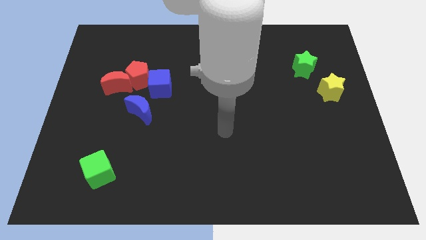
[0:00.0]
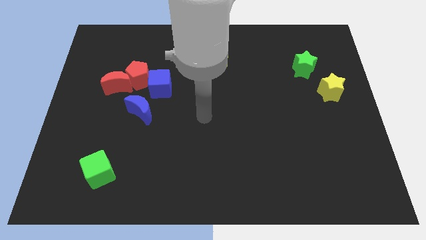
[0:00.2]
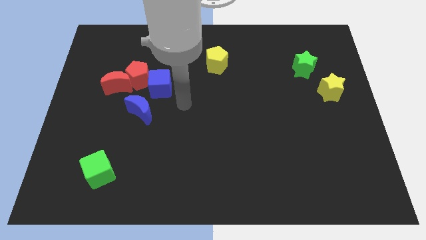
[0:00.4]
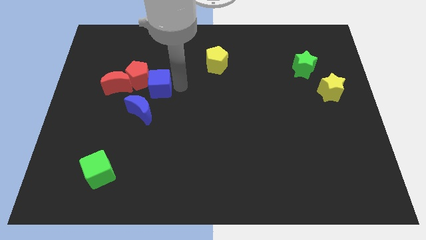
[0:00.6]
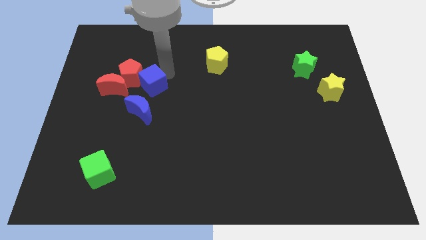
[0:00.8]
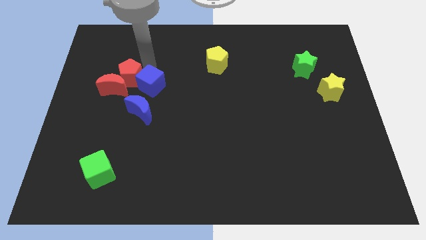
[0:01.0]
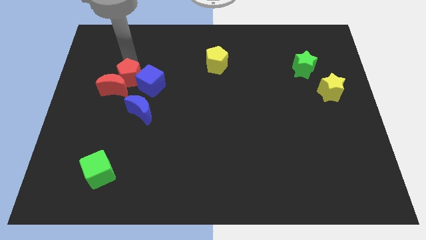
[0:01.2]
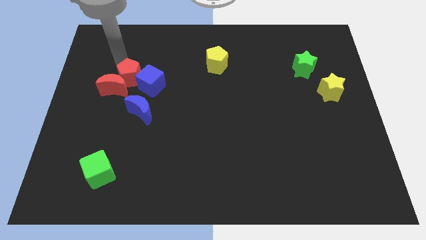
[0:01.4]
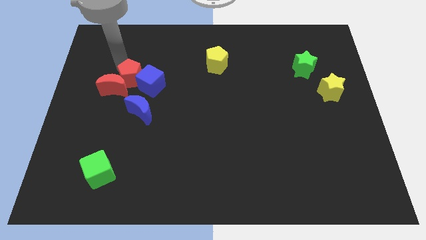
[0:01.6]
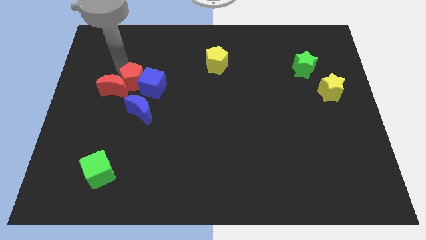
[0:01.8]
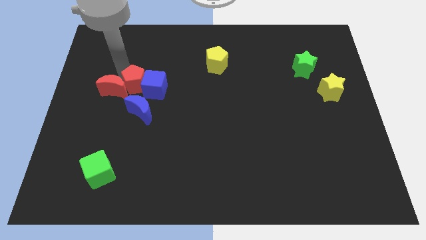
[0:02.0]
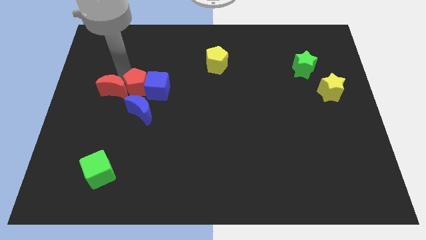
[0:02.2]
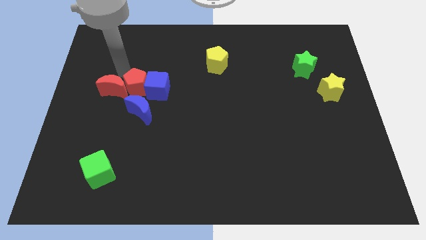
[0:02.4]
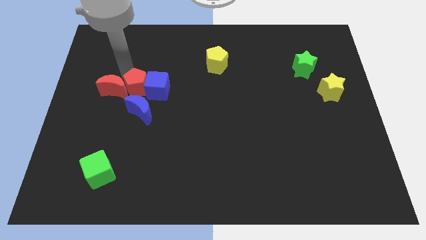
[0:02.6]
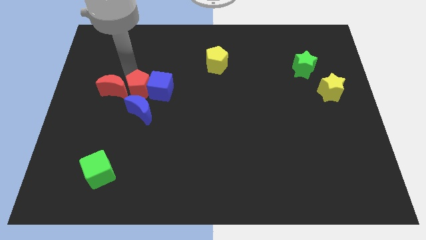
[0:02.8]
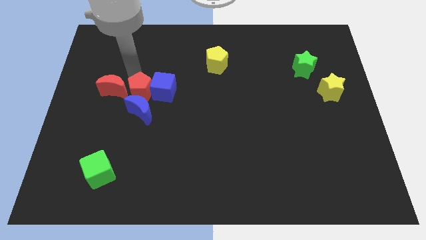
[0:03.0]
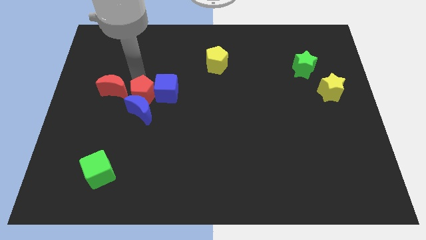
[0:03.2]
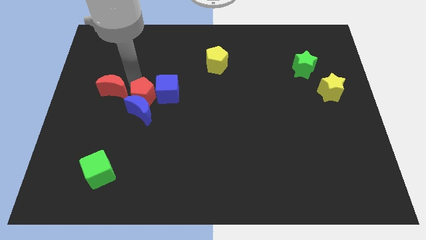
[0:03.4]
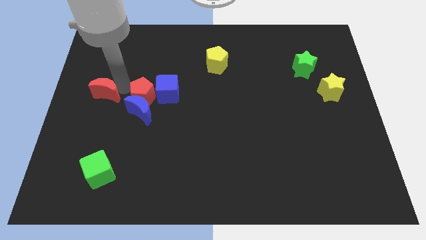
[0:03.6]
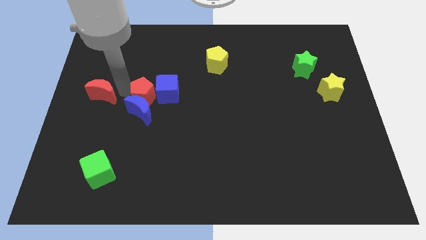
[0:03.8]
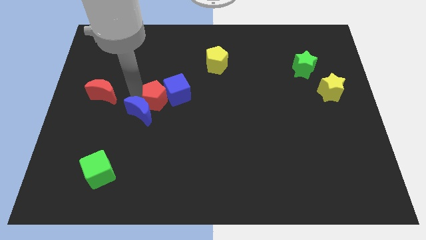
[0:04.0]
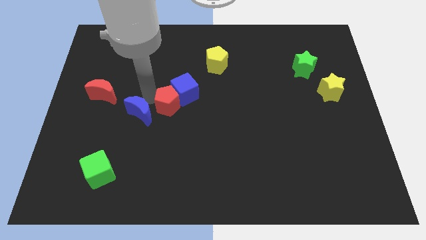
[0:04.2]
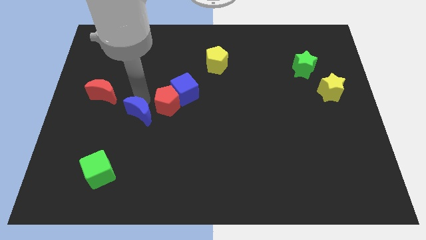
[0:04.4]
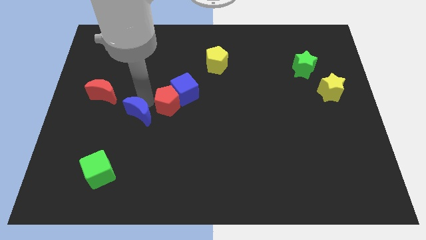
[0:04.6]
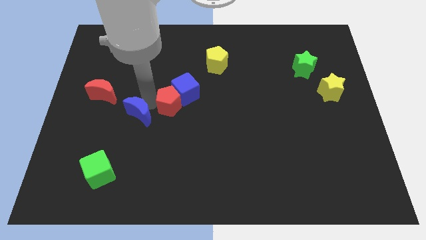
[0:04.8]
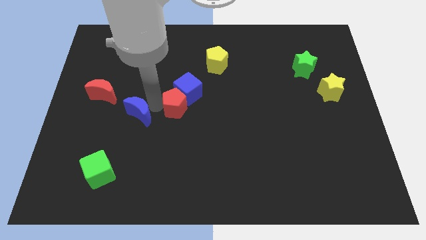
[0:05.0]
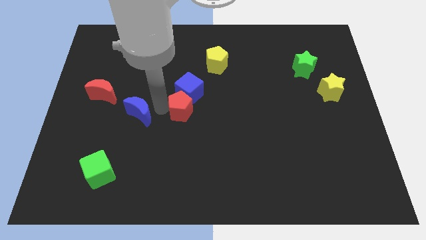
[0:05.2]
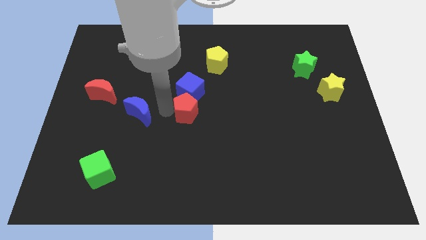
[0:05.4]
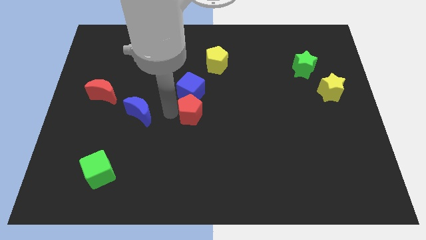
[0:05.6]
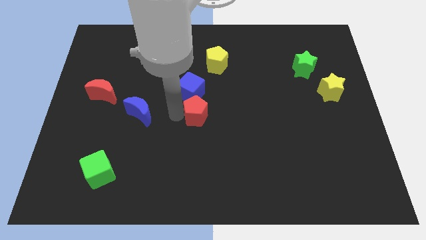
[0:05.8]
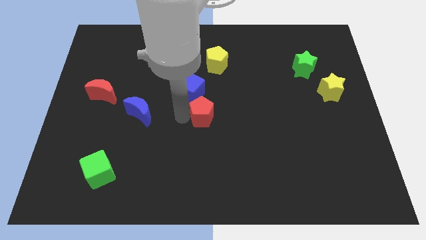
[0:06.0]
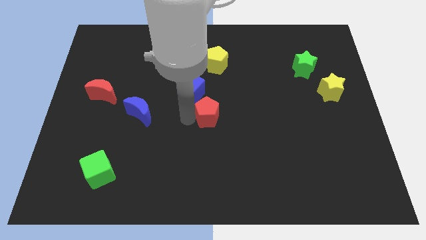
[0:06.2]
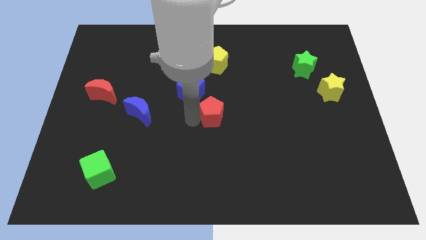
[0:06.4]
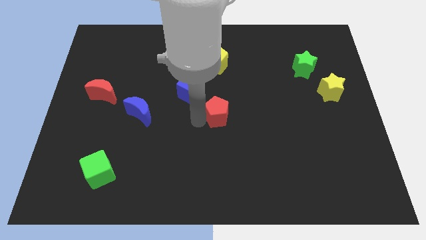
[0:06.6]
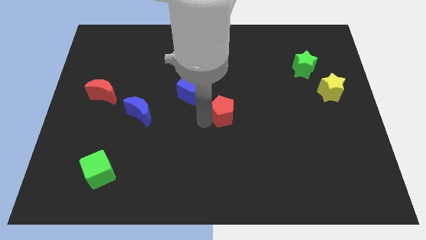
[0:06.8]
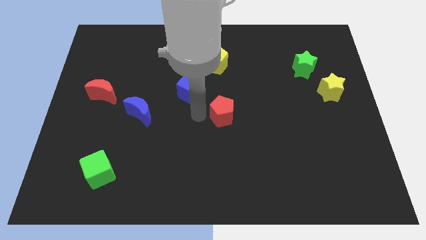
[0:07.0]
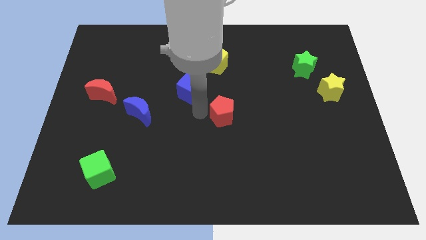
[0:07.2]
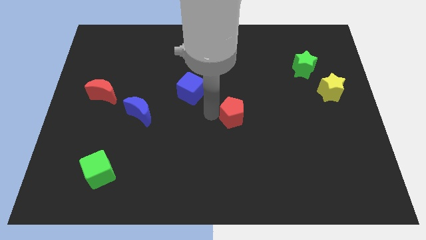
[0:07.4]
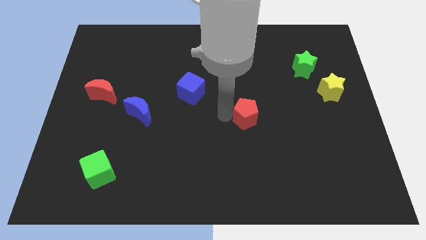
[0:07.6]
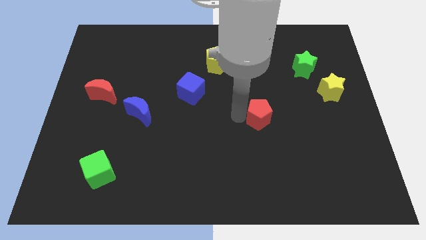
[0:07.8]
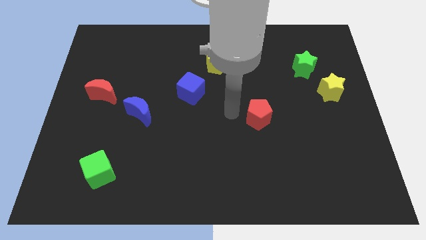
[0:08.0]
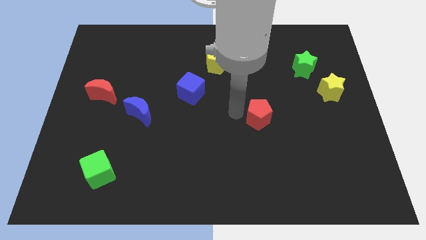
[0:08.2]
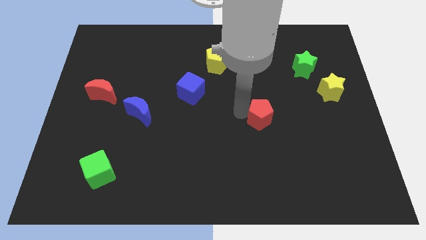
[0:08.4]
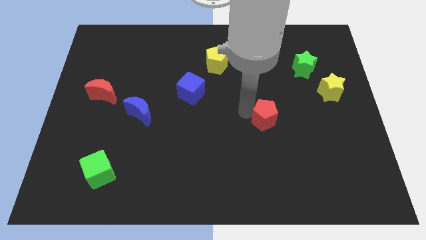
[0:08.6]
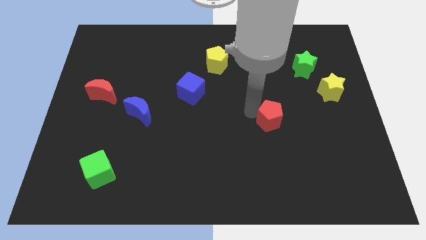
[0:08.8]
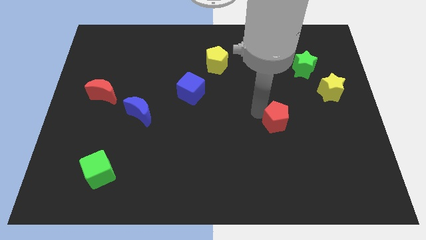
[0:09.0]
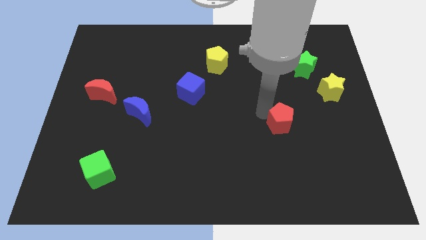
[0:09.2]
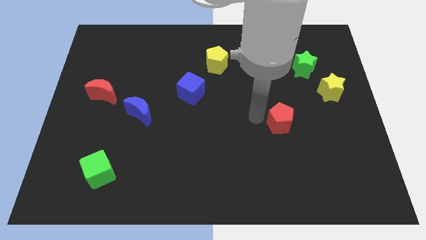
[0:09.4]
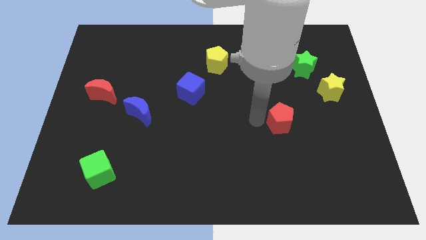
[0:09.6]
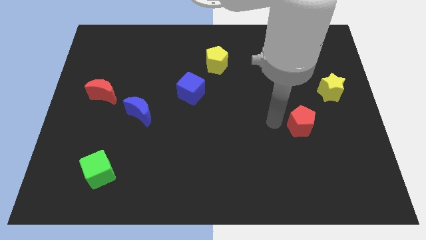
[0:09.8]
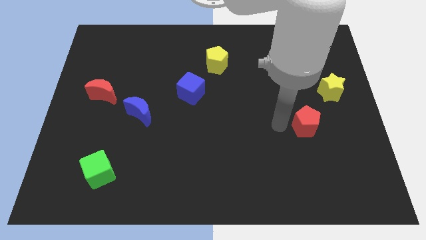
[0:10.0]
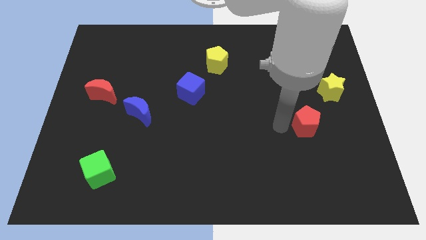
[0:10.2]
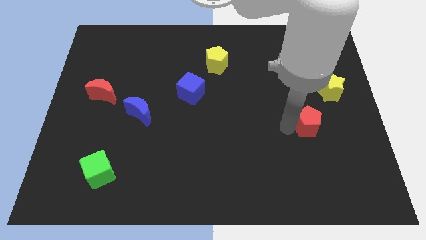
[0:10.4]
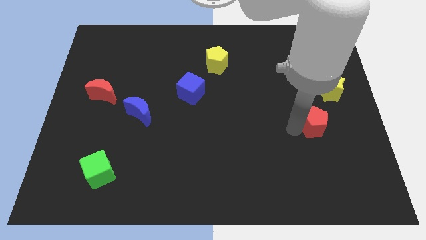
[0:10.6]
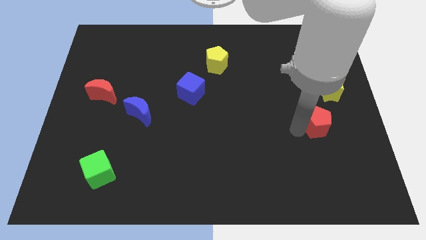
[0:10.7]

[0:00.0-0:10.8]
push the red pentagon to the bottom side of the yellow star

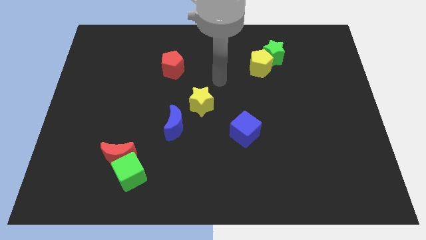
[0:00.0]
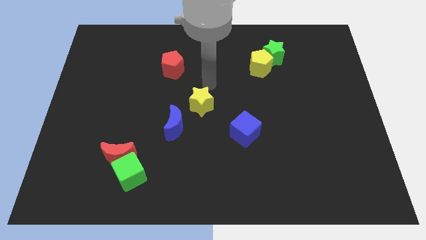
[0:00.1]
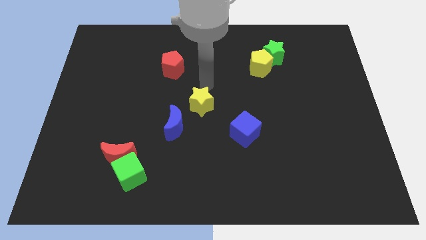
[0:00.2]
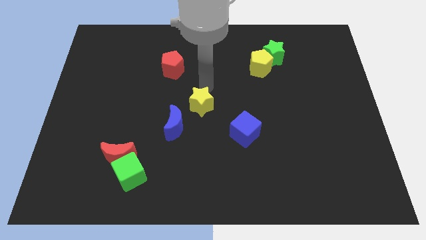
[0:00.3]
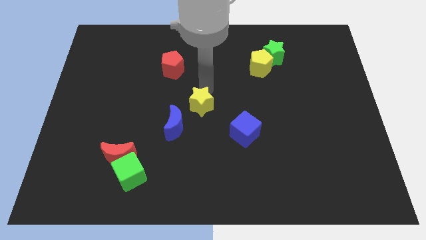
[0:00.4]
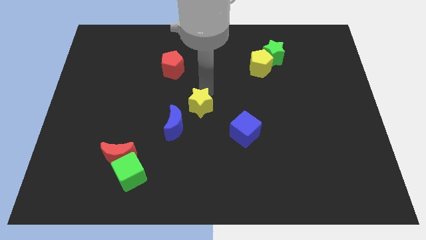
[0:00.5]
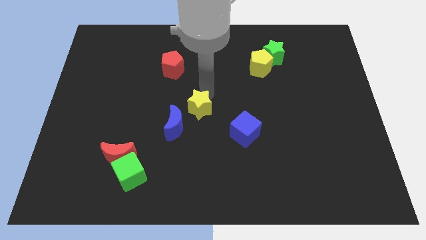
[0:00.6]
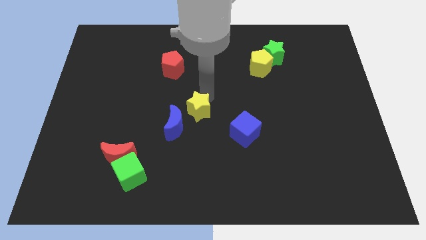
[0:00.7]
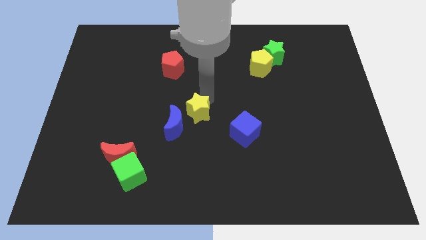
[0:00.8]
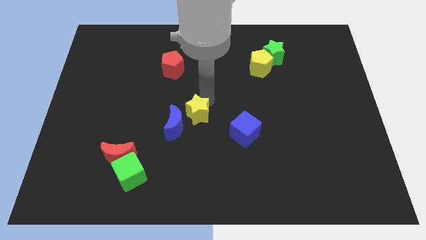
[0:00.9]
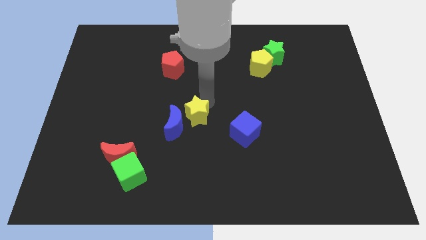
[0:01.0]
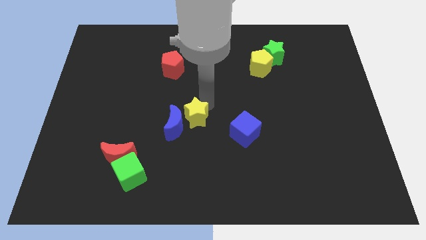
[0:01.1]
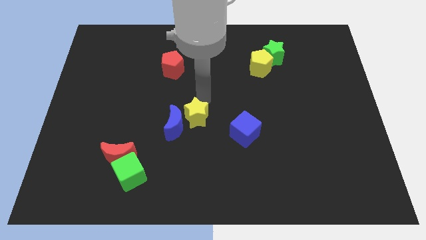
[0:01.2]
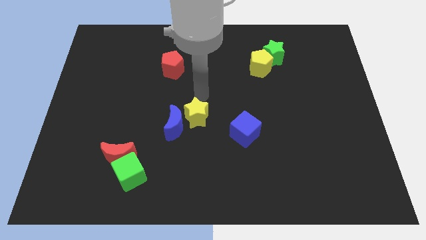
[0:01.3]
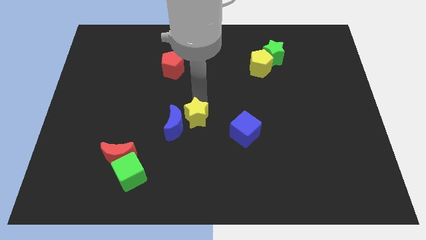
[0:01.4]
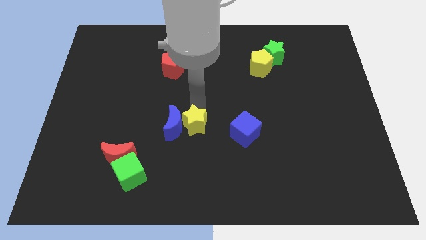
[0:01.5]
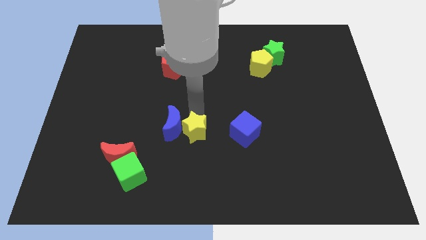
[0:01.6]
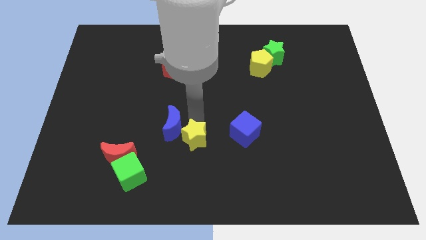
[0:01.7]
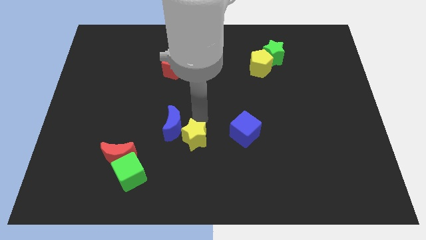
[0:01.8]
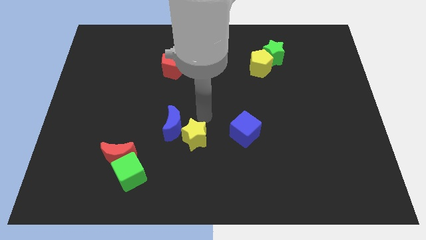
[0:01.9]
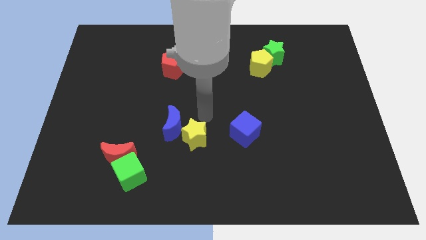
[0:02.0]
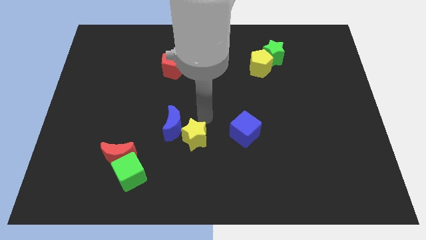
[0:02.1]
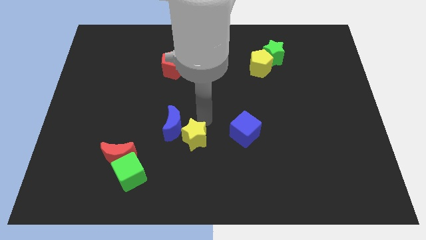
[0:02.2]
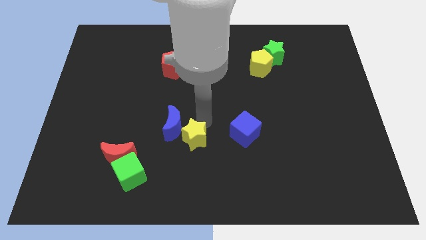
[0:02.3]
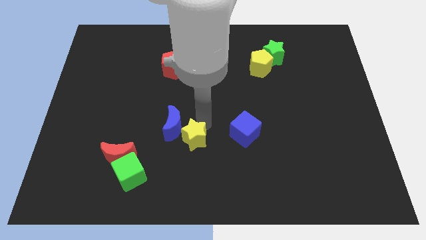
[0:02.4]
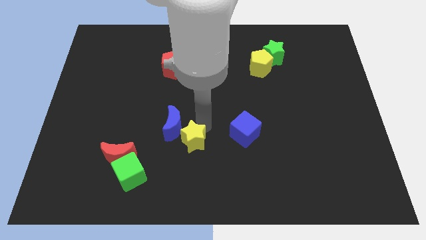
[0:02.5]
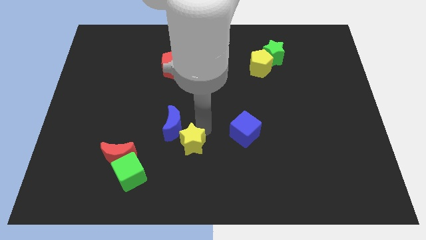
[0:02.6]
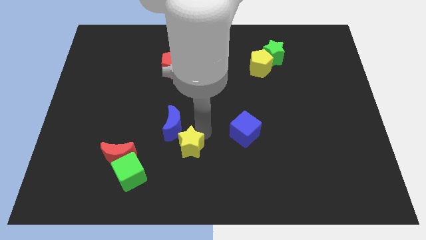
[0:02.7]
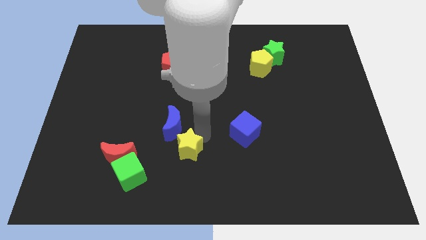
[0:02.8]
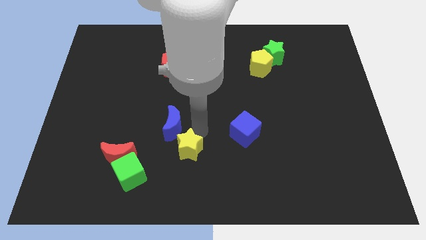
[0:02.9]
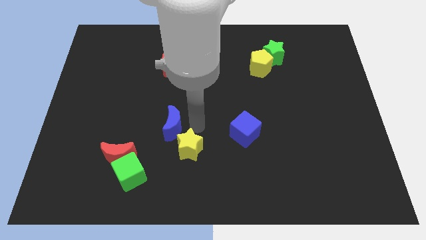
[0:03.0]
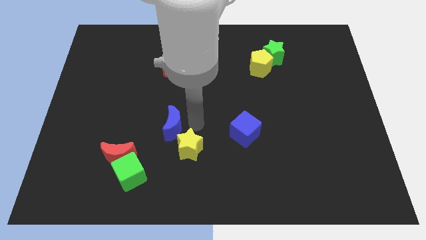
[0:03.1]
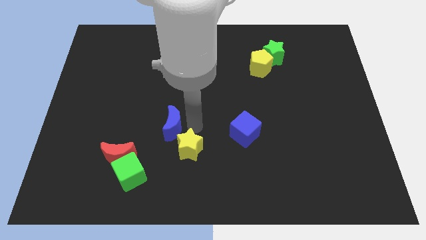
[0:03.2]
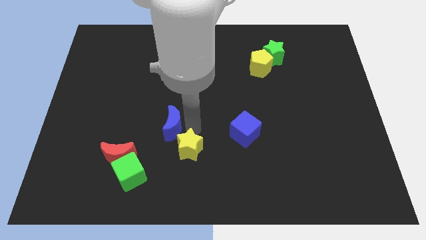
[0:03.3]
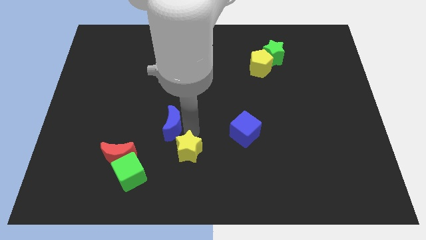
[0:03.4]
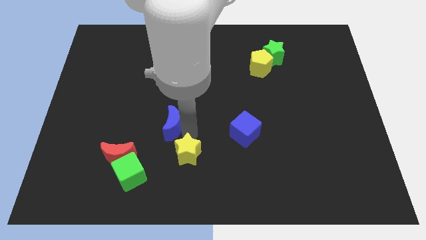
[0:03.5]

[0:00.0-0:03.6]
move the yellow star to the right of the green cube
